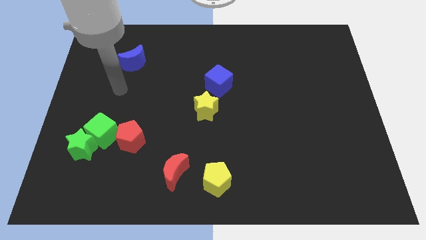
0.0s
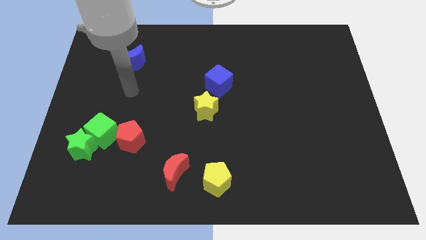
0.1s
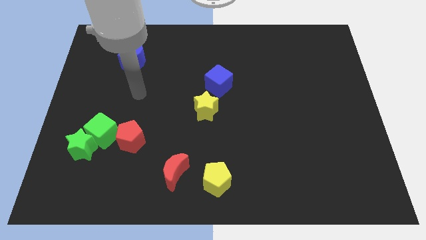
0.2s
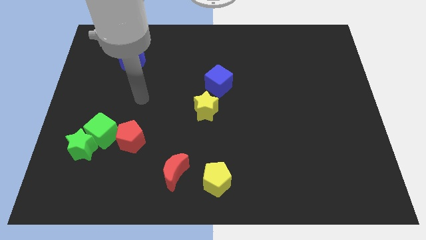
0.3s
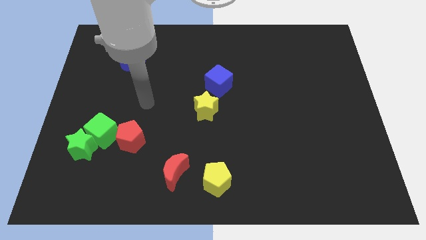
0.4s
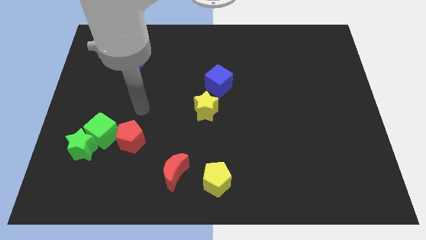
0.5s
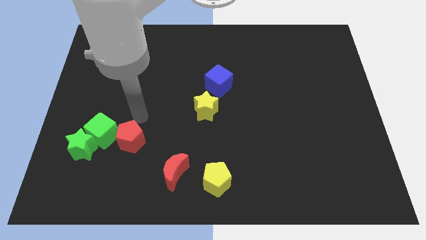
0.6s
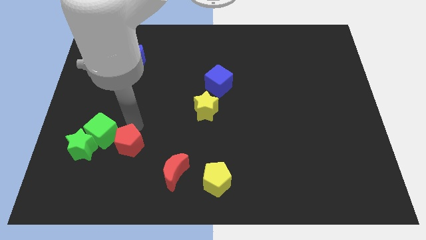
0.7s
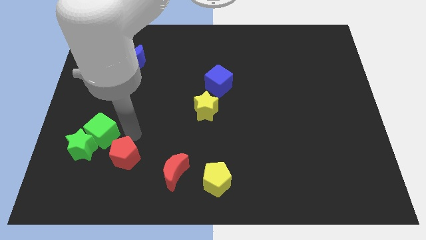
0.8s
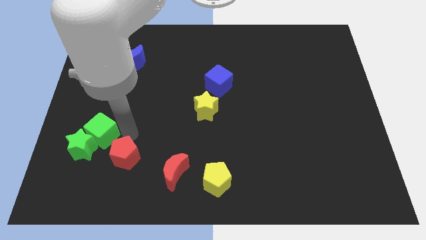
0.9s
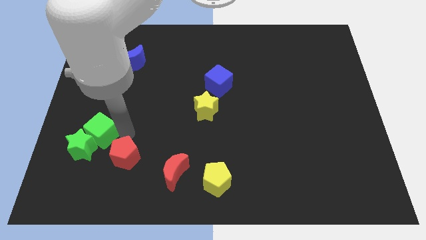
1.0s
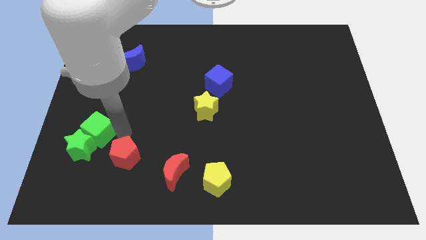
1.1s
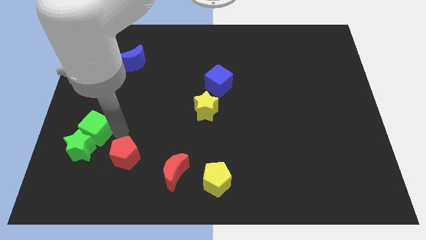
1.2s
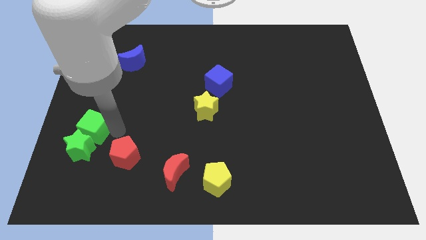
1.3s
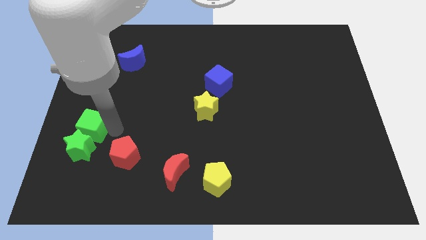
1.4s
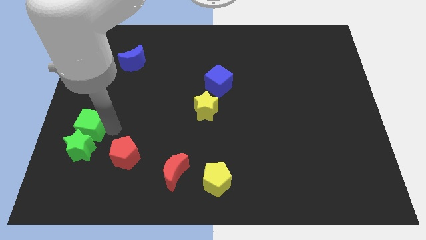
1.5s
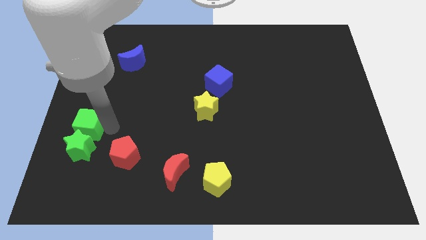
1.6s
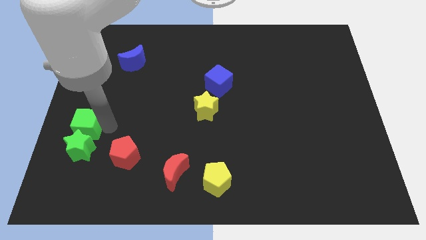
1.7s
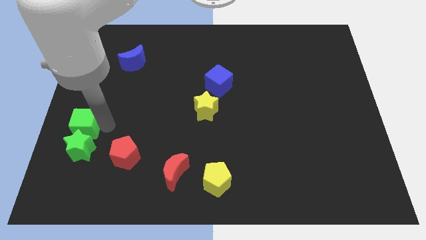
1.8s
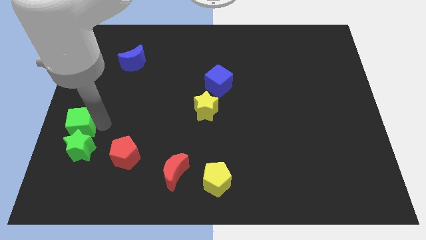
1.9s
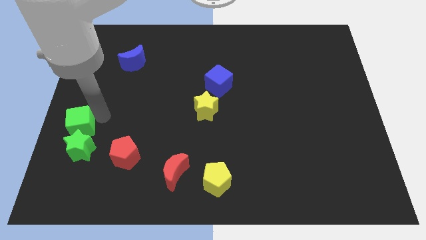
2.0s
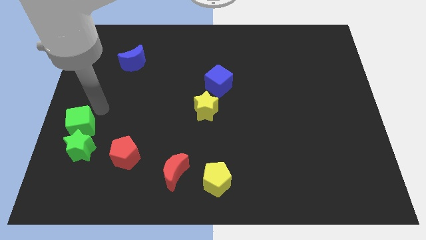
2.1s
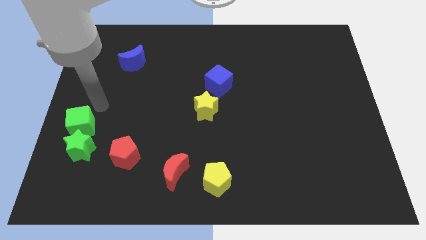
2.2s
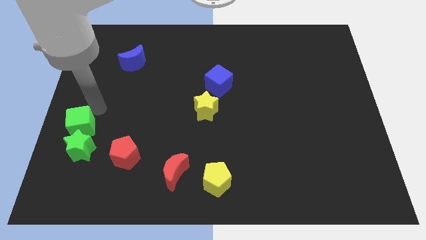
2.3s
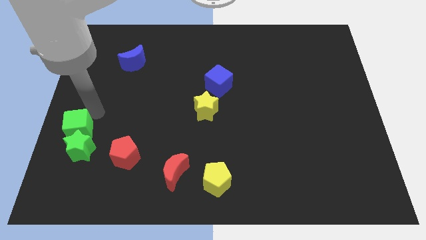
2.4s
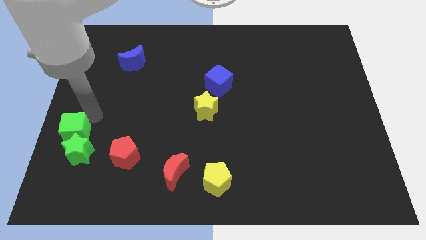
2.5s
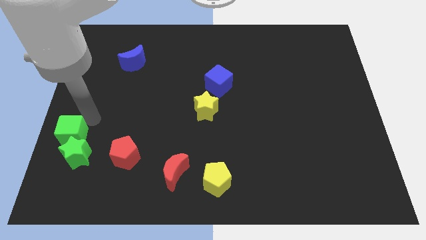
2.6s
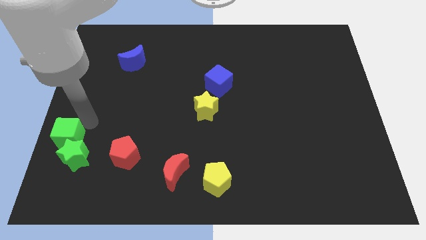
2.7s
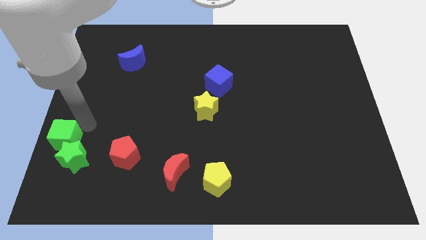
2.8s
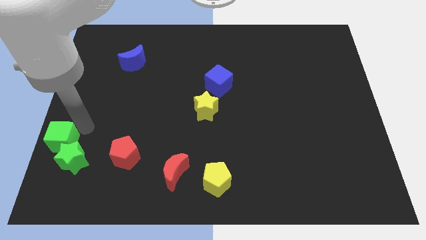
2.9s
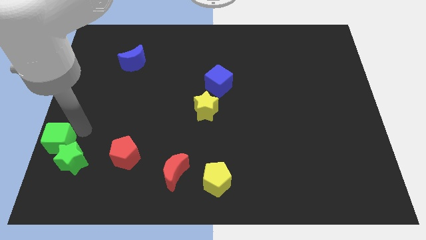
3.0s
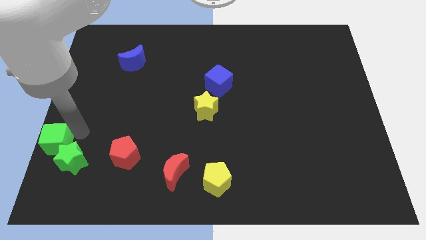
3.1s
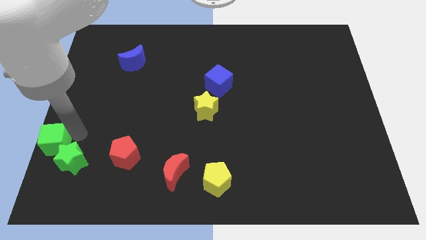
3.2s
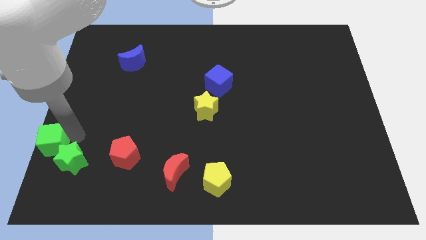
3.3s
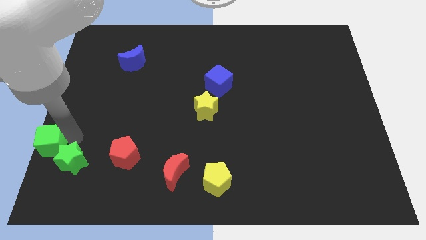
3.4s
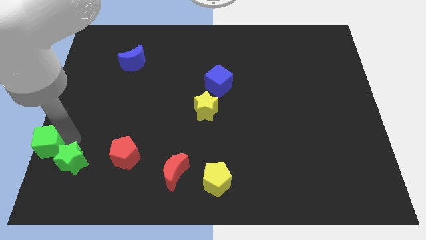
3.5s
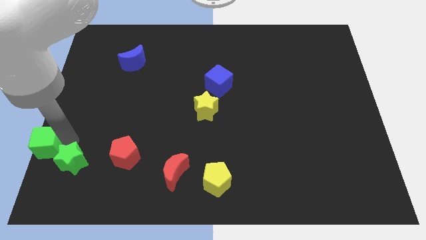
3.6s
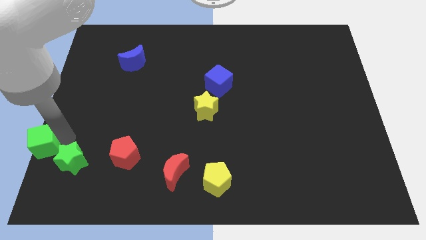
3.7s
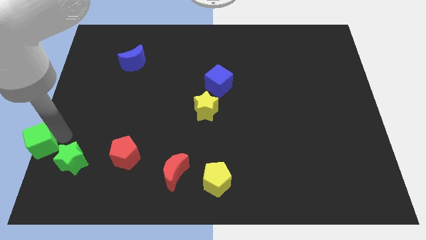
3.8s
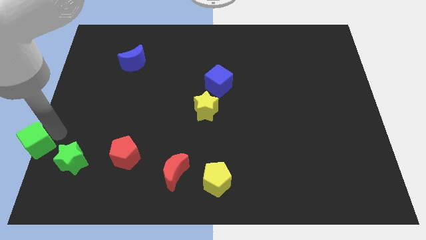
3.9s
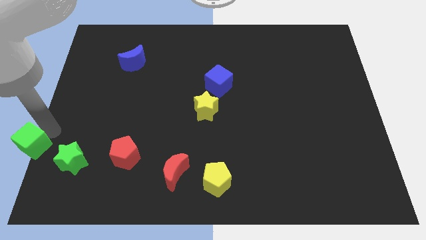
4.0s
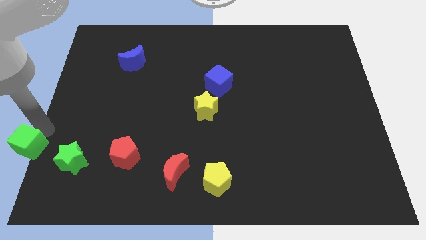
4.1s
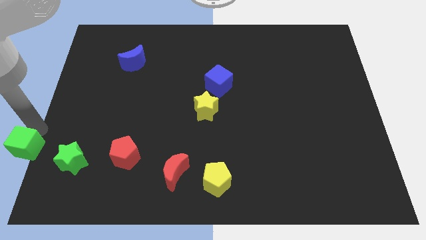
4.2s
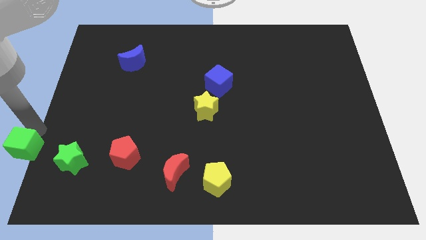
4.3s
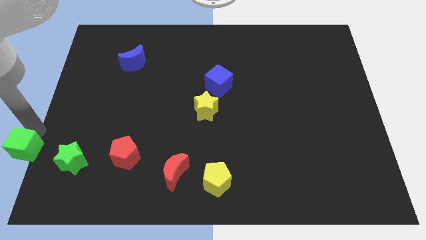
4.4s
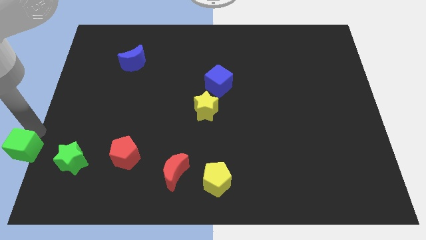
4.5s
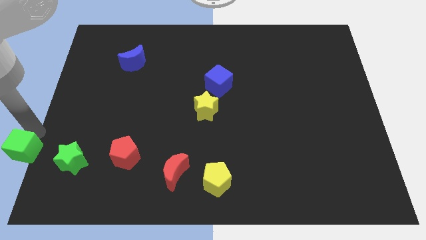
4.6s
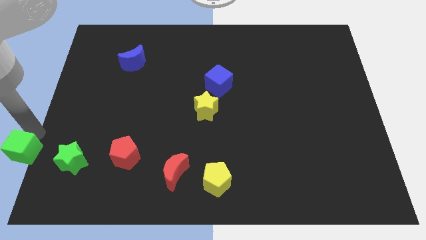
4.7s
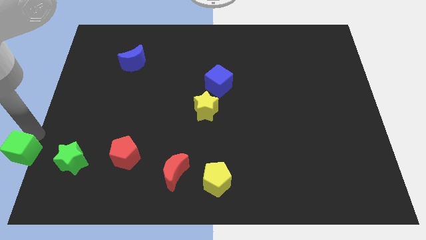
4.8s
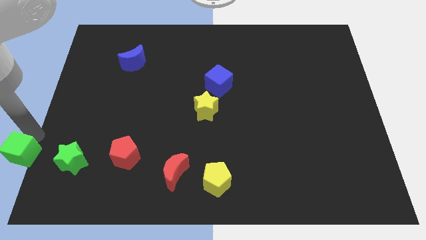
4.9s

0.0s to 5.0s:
push the green cube to the bottom left
